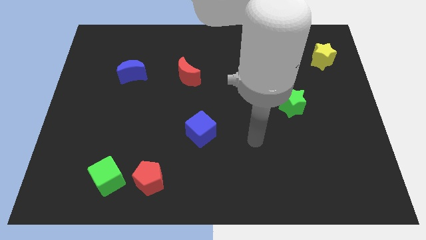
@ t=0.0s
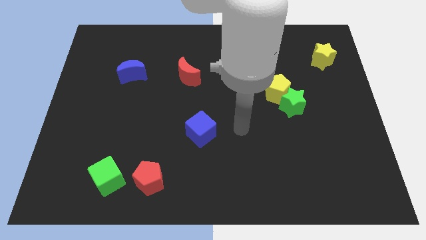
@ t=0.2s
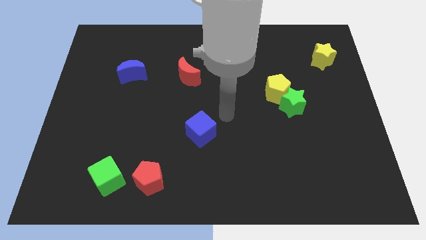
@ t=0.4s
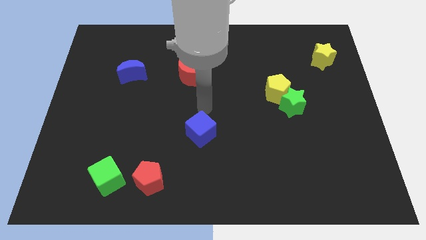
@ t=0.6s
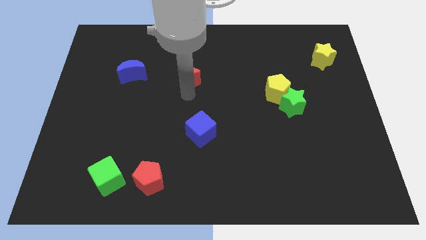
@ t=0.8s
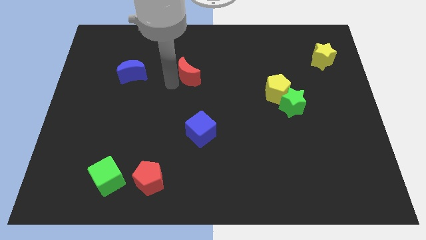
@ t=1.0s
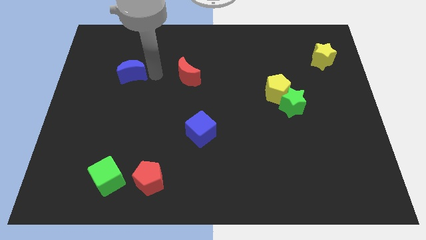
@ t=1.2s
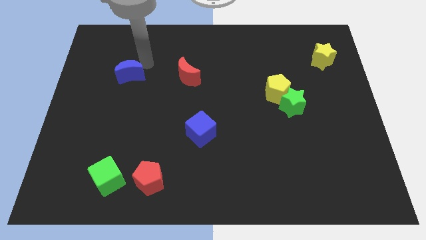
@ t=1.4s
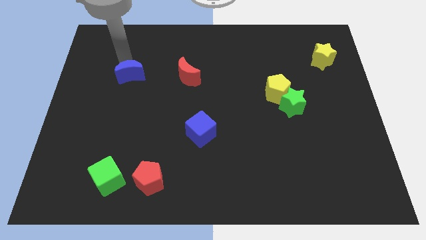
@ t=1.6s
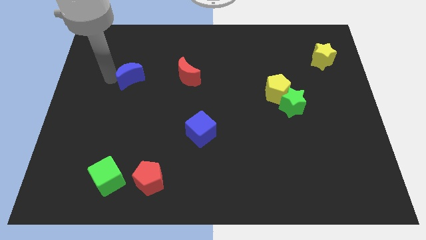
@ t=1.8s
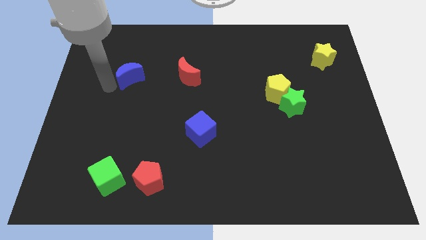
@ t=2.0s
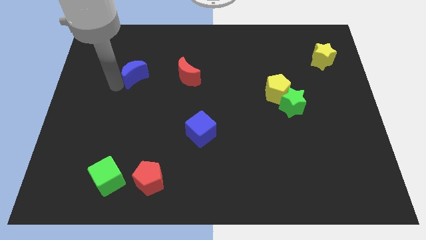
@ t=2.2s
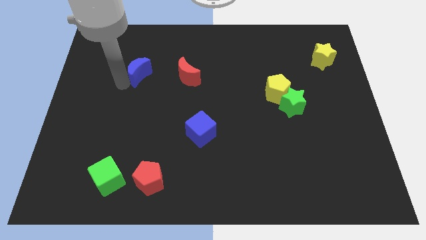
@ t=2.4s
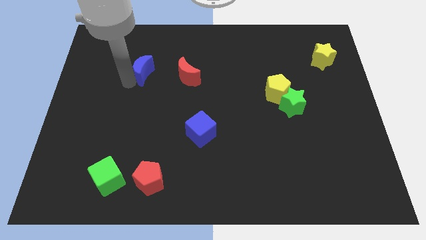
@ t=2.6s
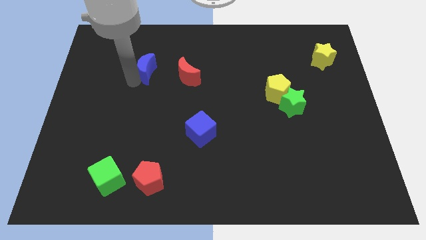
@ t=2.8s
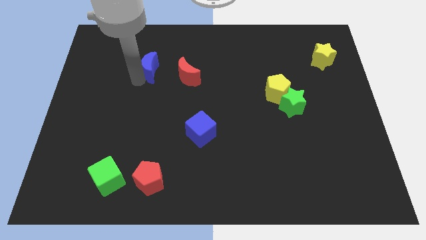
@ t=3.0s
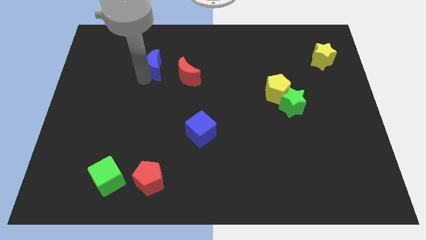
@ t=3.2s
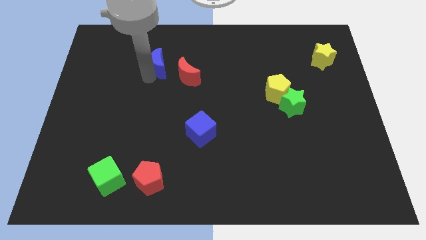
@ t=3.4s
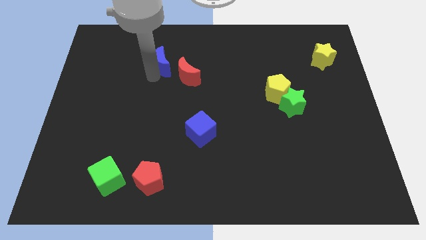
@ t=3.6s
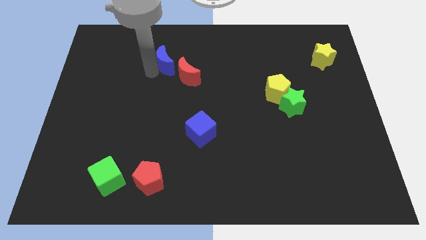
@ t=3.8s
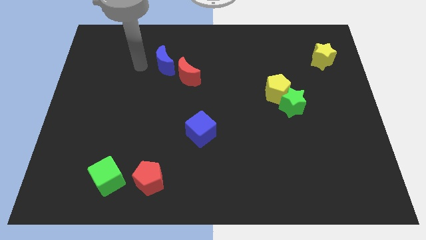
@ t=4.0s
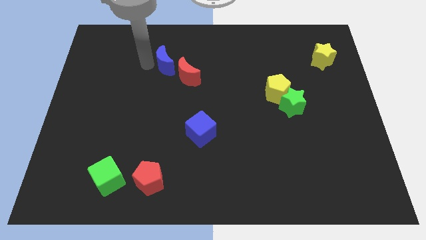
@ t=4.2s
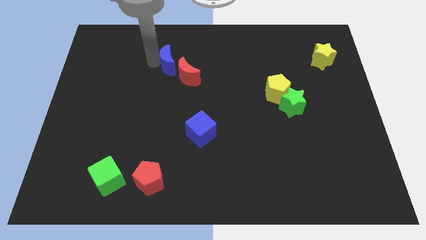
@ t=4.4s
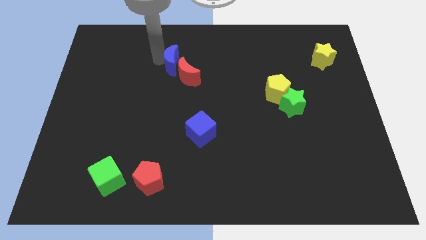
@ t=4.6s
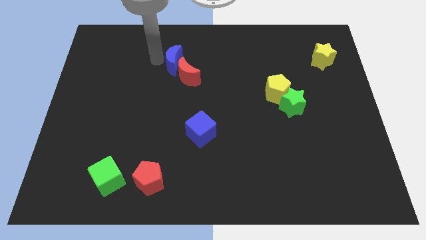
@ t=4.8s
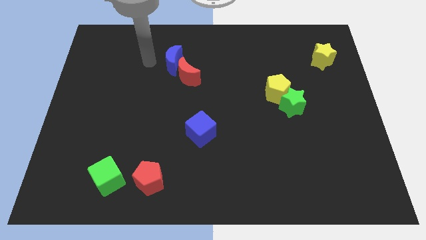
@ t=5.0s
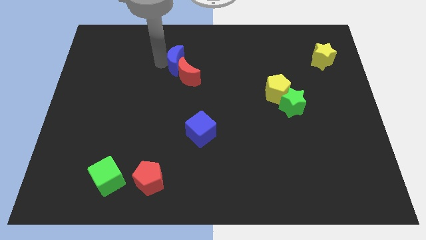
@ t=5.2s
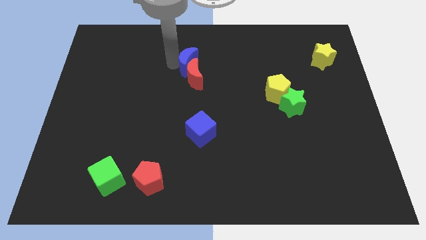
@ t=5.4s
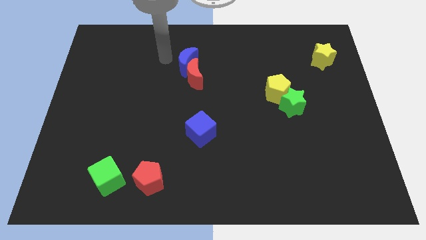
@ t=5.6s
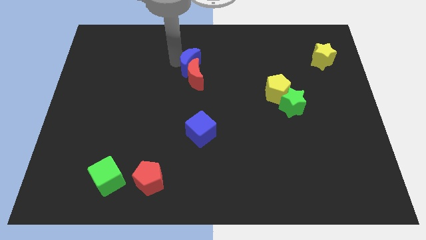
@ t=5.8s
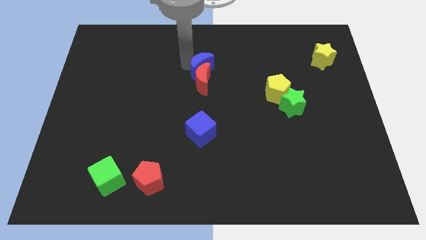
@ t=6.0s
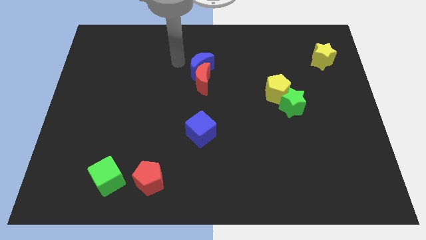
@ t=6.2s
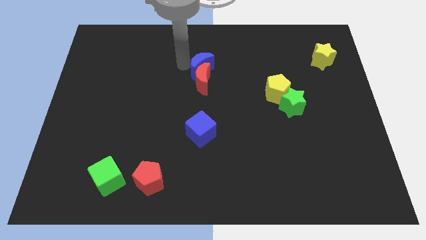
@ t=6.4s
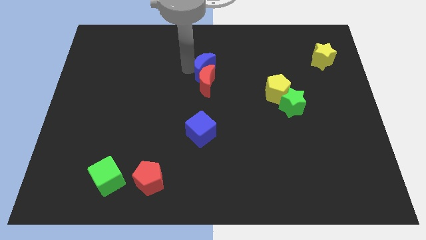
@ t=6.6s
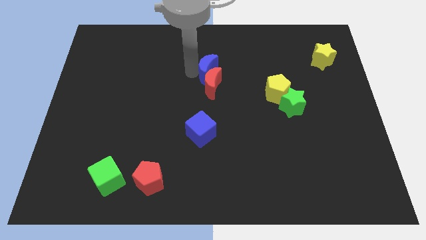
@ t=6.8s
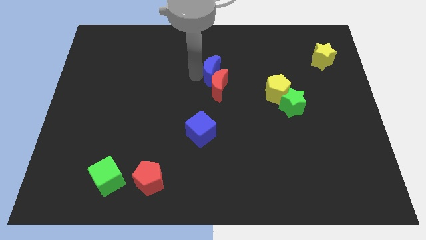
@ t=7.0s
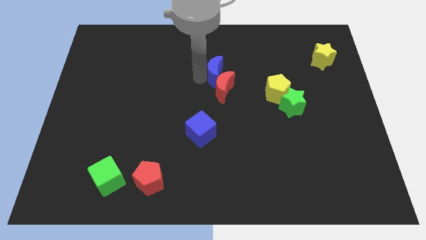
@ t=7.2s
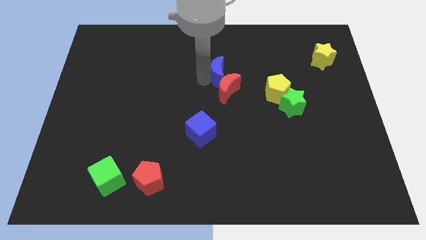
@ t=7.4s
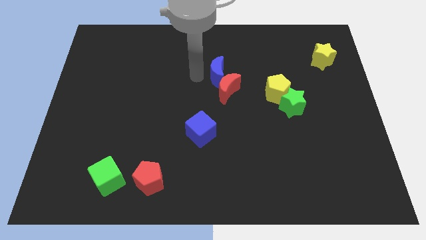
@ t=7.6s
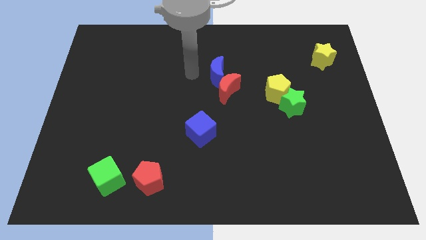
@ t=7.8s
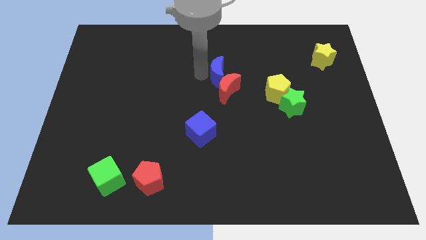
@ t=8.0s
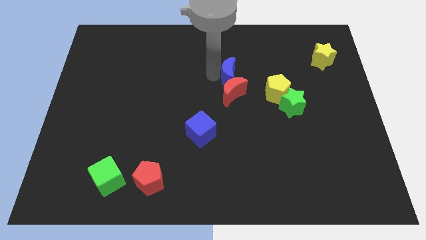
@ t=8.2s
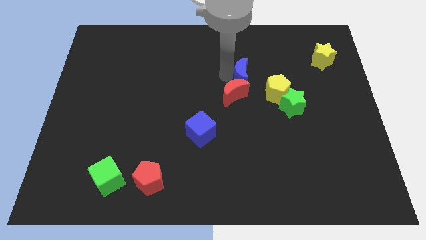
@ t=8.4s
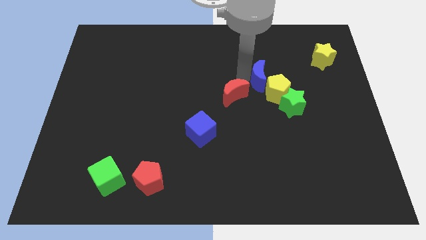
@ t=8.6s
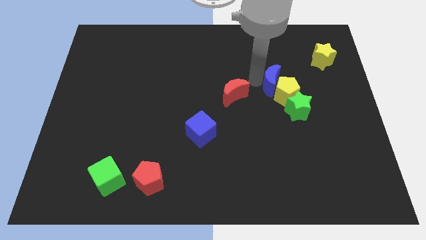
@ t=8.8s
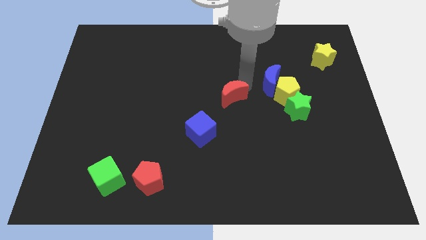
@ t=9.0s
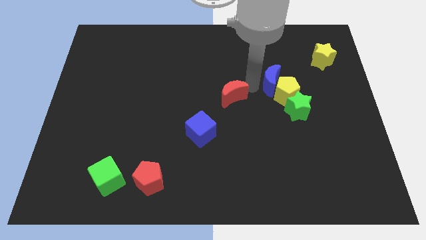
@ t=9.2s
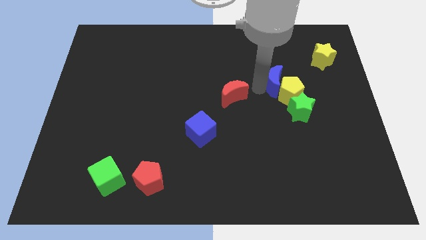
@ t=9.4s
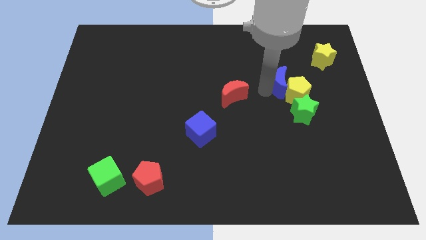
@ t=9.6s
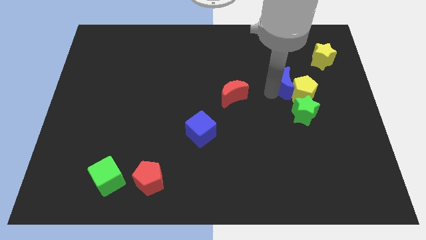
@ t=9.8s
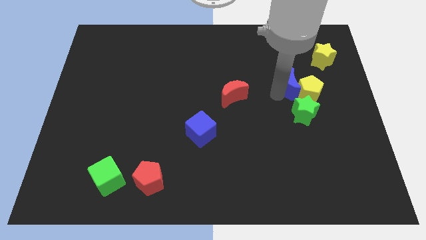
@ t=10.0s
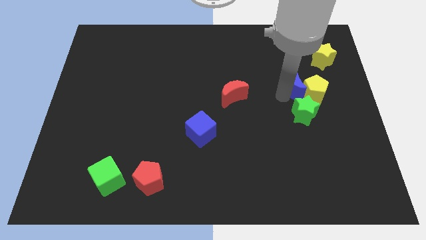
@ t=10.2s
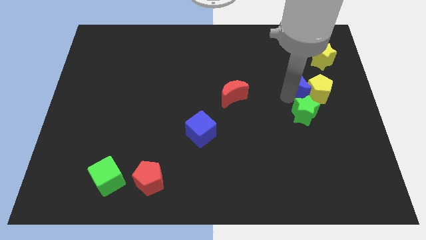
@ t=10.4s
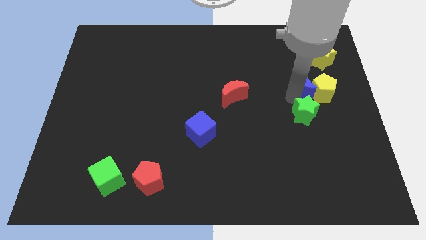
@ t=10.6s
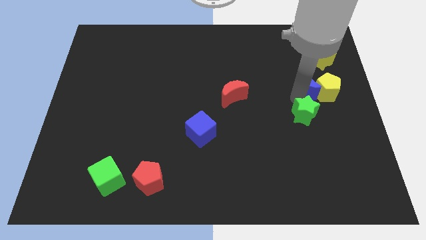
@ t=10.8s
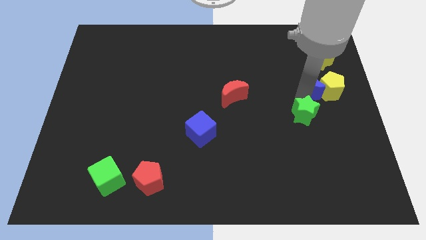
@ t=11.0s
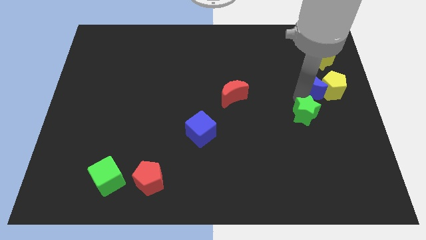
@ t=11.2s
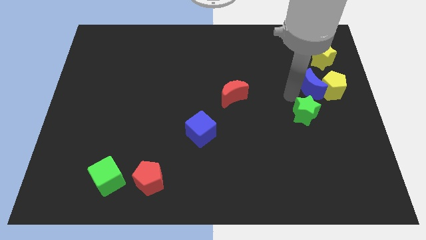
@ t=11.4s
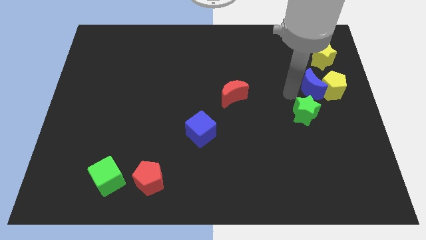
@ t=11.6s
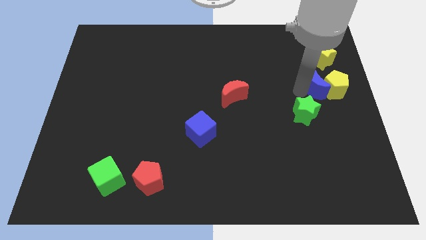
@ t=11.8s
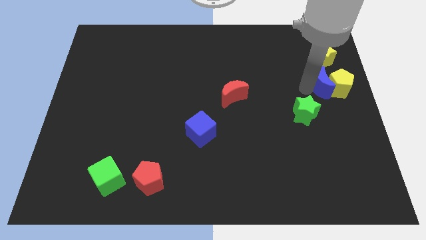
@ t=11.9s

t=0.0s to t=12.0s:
put the blue moon to the right side of the board
